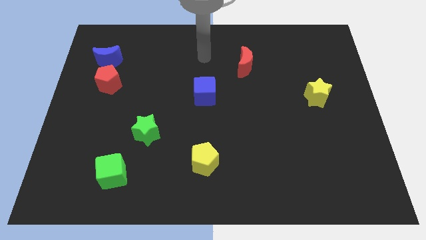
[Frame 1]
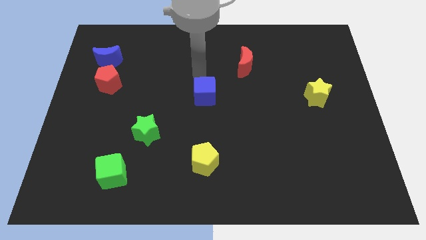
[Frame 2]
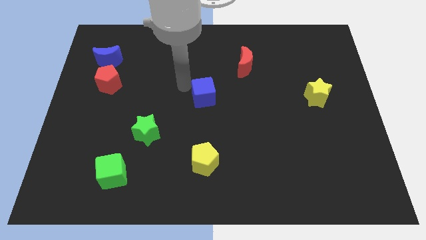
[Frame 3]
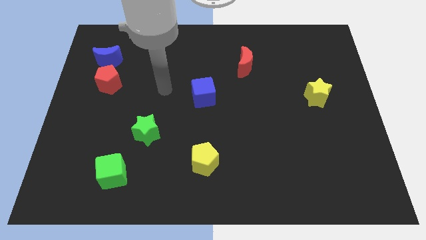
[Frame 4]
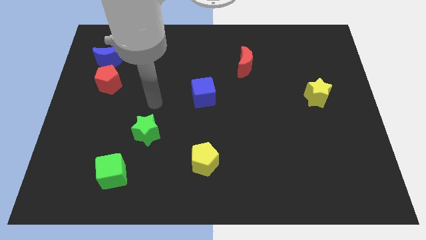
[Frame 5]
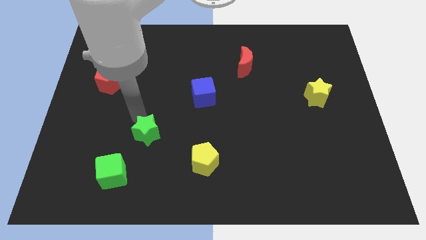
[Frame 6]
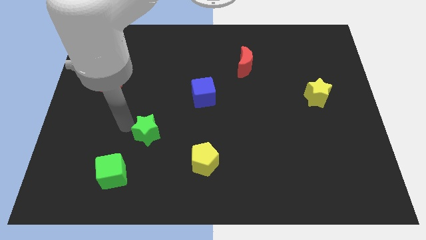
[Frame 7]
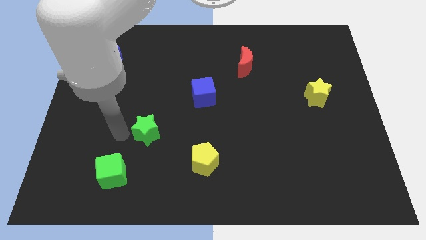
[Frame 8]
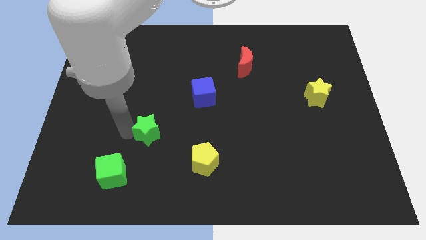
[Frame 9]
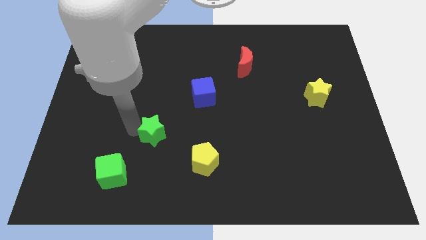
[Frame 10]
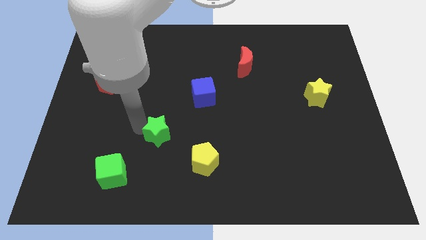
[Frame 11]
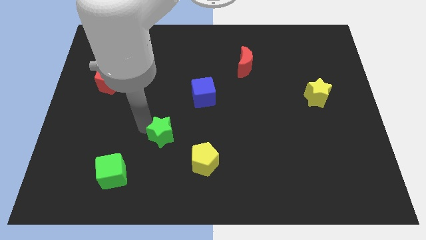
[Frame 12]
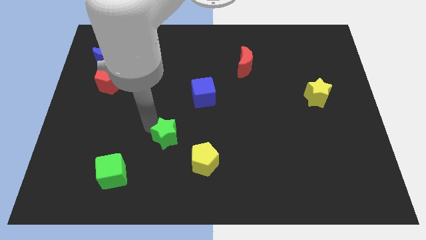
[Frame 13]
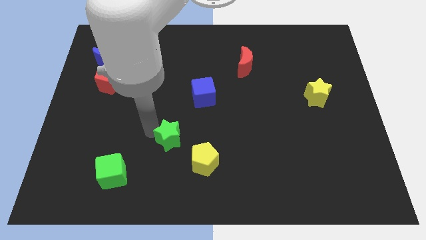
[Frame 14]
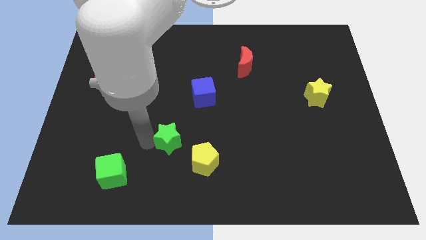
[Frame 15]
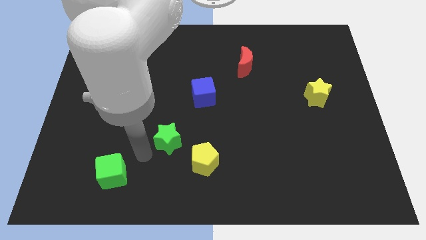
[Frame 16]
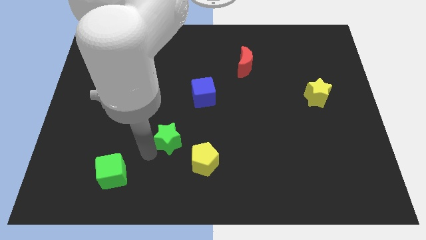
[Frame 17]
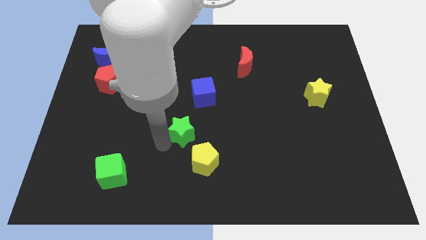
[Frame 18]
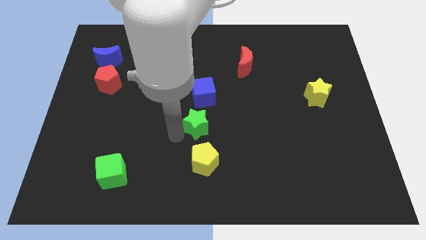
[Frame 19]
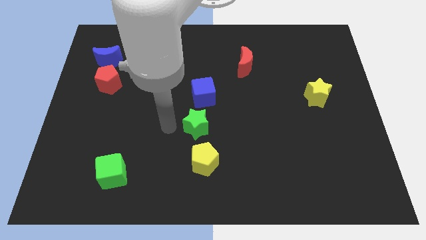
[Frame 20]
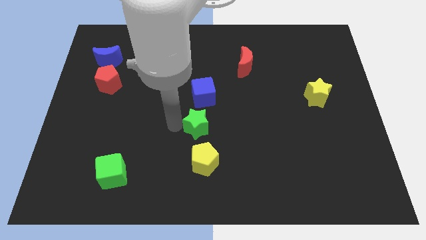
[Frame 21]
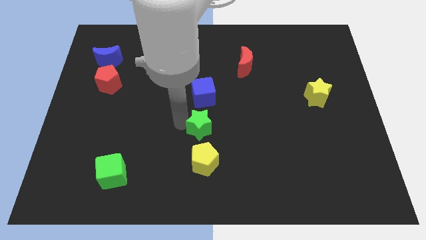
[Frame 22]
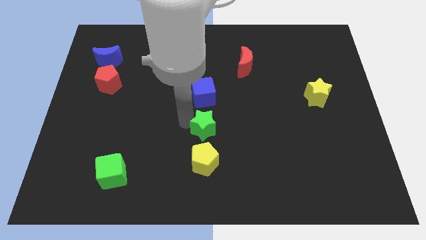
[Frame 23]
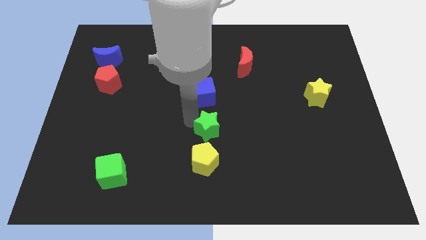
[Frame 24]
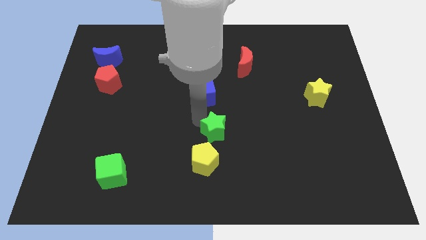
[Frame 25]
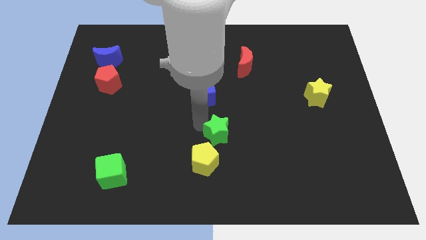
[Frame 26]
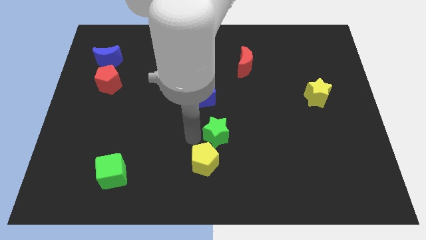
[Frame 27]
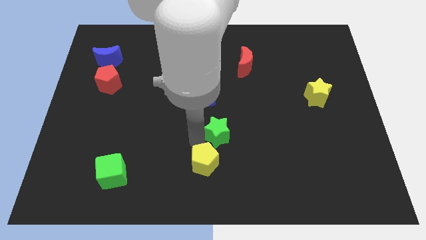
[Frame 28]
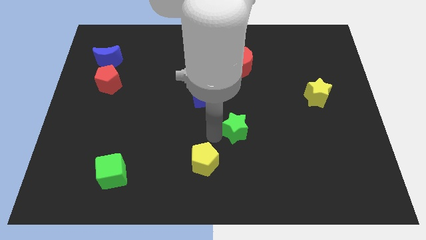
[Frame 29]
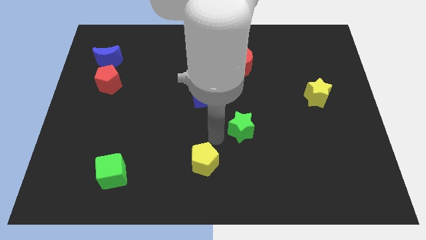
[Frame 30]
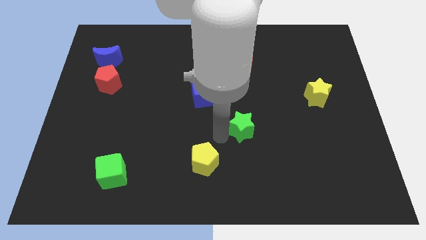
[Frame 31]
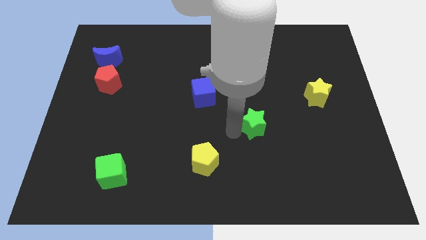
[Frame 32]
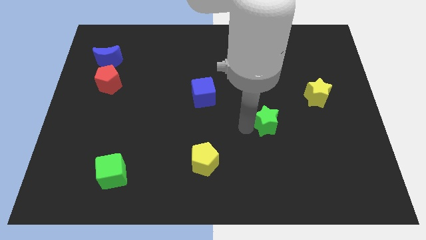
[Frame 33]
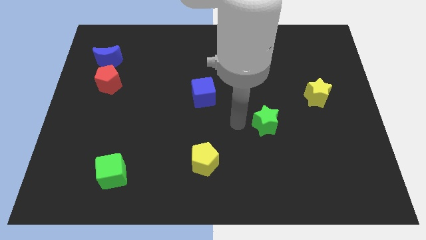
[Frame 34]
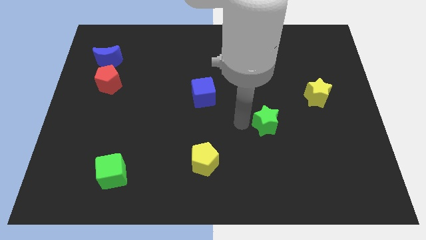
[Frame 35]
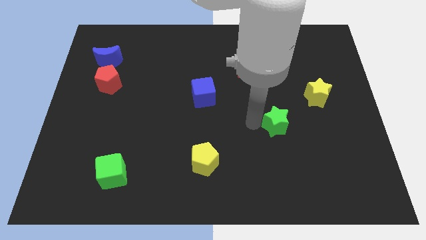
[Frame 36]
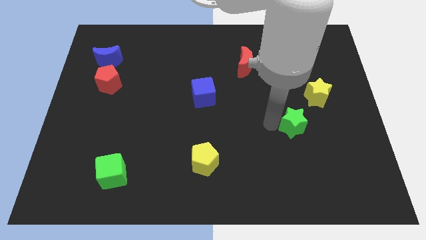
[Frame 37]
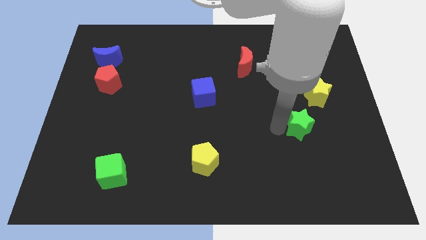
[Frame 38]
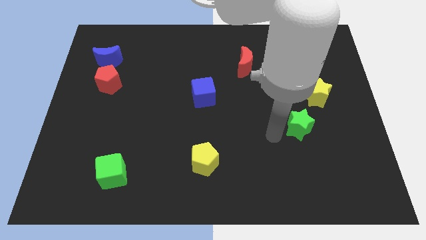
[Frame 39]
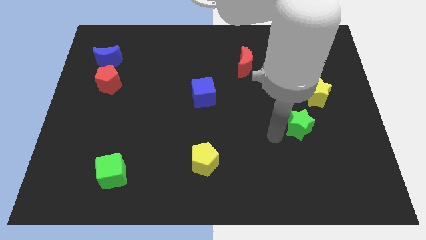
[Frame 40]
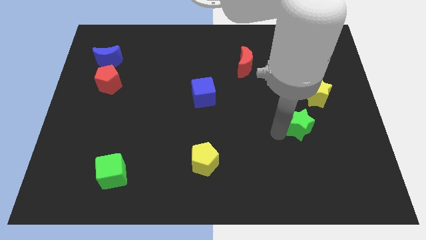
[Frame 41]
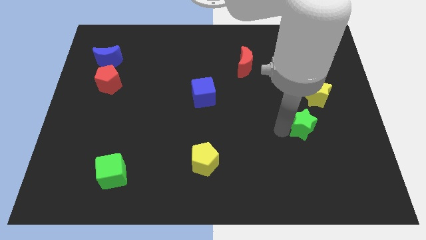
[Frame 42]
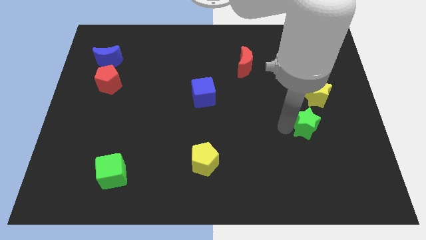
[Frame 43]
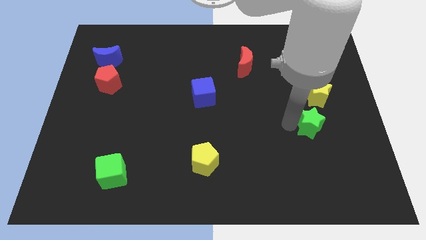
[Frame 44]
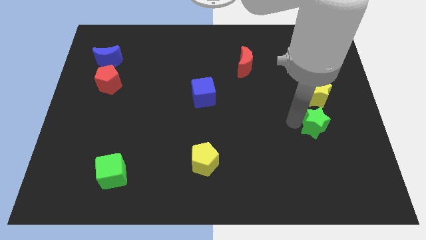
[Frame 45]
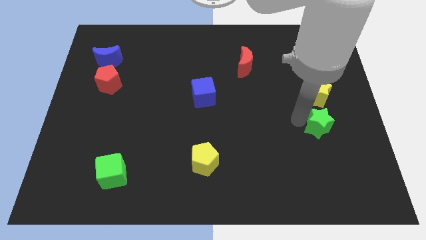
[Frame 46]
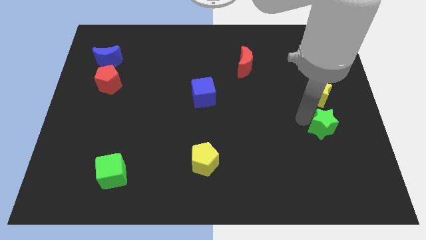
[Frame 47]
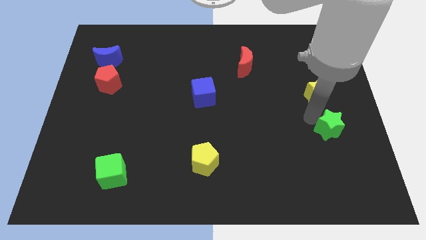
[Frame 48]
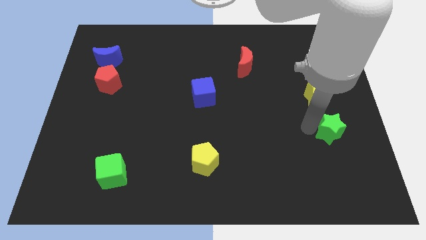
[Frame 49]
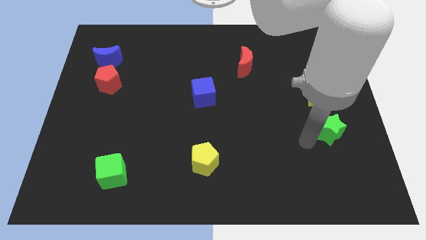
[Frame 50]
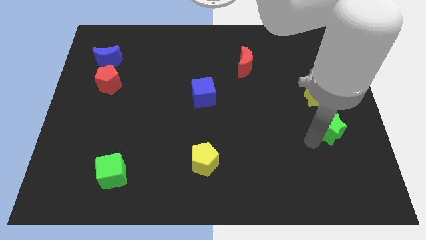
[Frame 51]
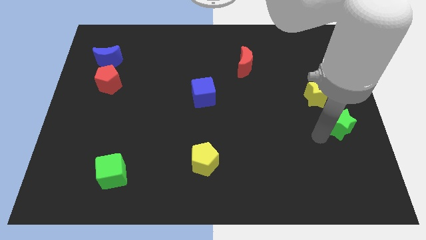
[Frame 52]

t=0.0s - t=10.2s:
put the green star to the right side

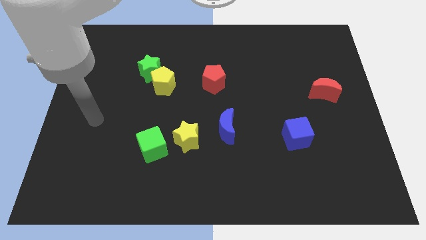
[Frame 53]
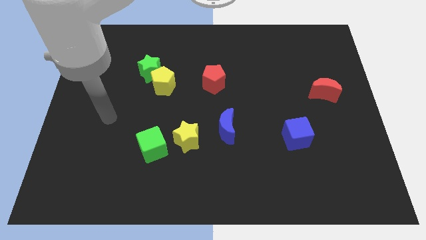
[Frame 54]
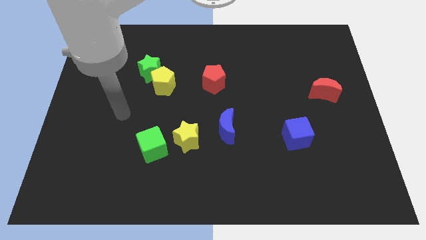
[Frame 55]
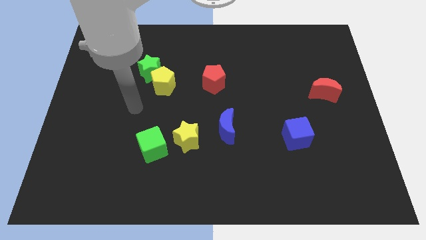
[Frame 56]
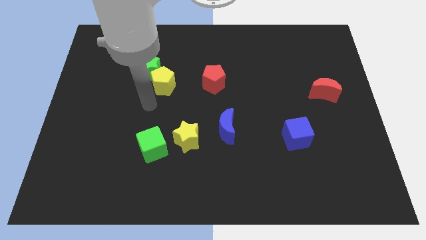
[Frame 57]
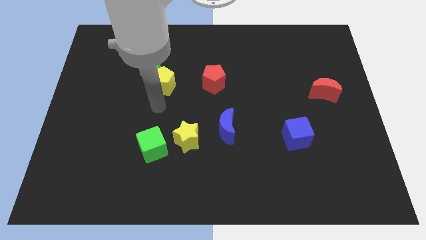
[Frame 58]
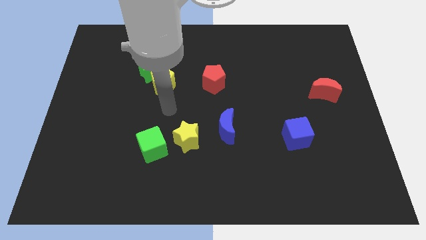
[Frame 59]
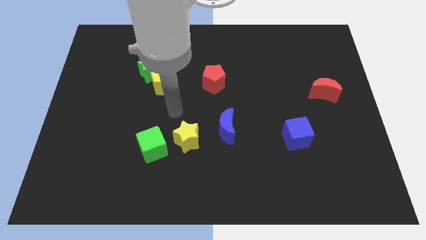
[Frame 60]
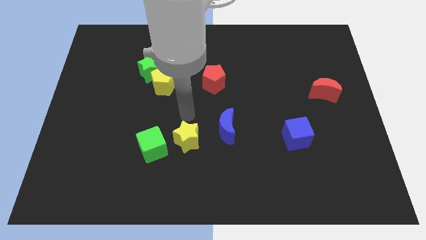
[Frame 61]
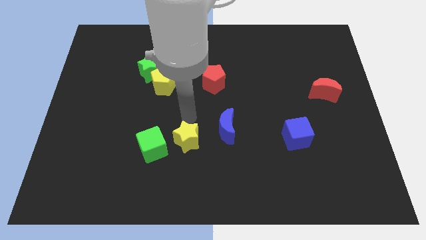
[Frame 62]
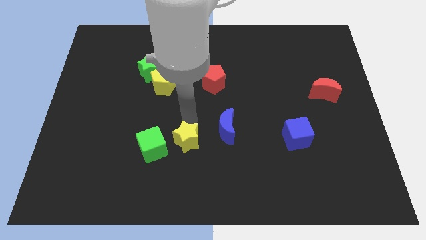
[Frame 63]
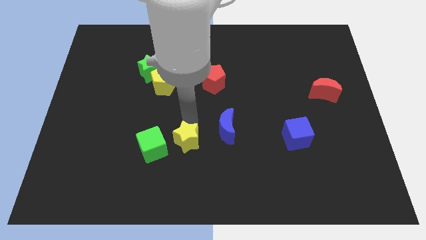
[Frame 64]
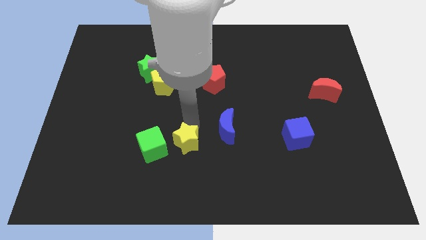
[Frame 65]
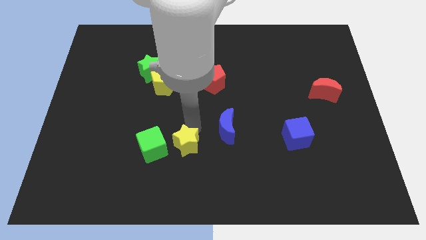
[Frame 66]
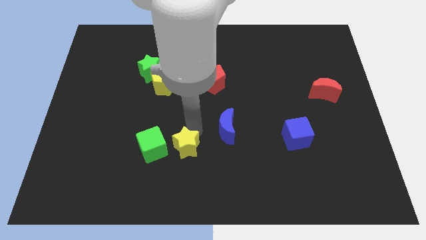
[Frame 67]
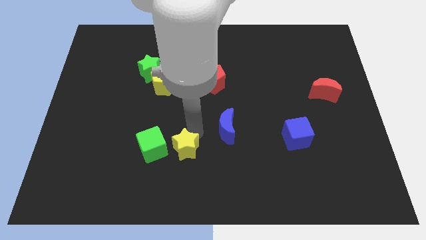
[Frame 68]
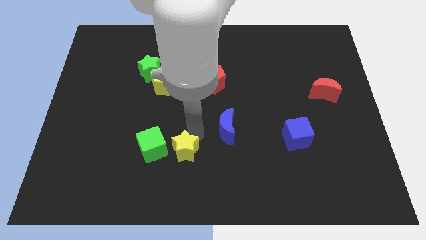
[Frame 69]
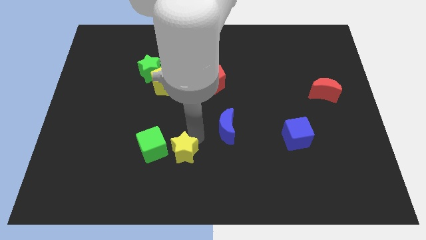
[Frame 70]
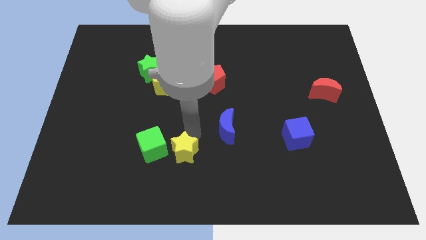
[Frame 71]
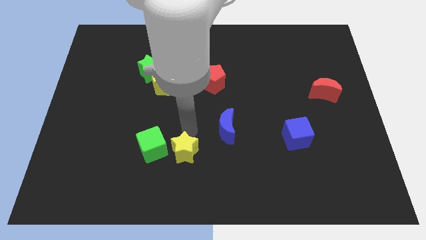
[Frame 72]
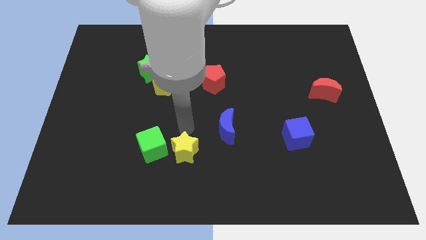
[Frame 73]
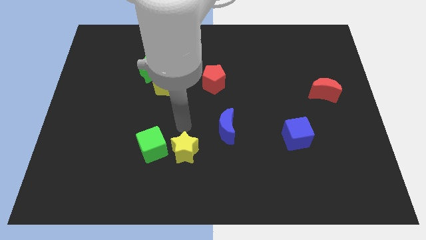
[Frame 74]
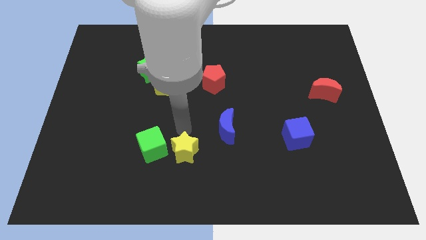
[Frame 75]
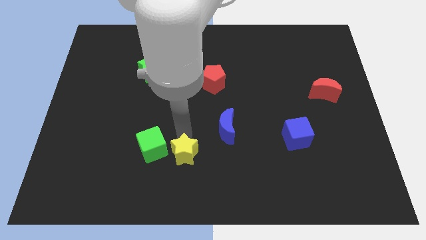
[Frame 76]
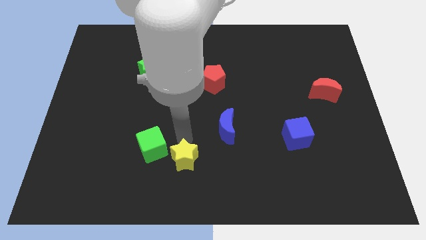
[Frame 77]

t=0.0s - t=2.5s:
push the yellow star to the bottom
